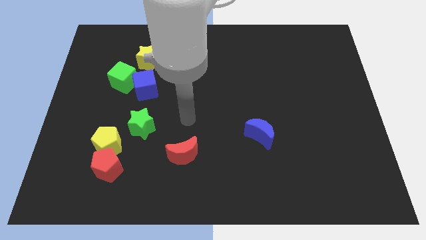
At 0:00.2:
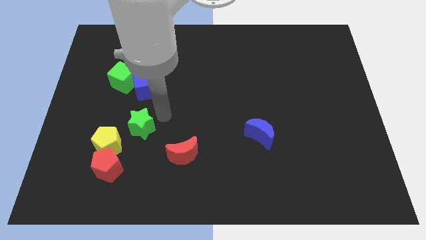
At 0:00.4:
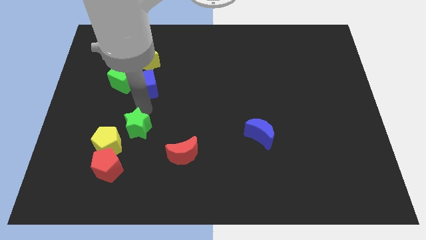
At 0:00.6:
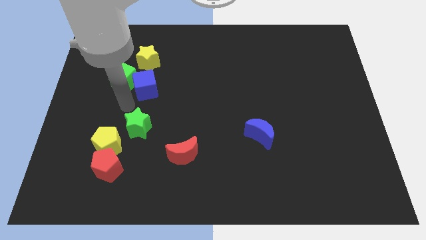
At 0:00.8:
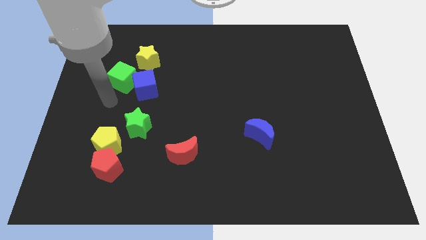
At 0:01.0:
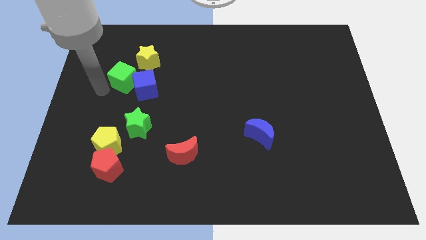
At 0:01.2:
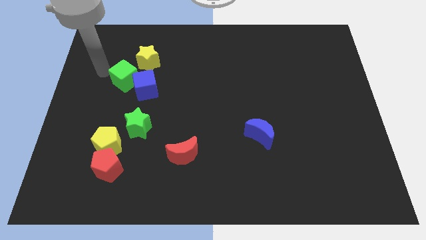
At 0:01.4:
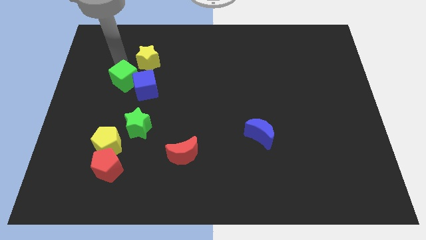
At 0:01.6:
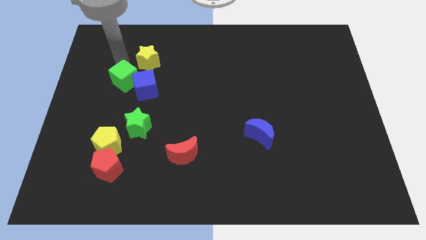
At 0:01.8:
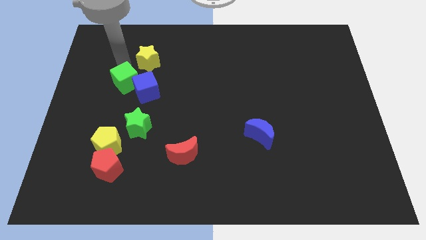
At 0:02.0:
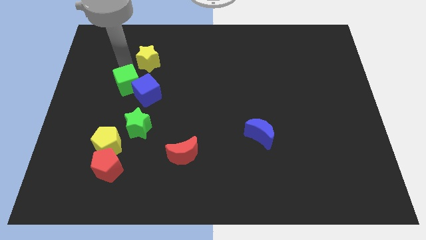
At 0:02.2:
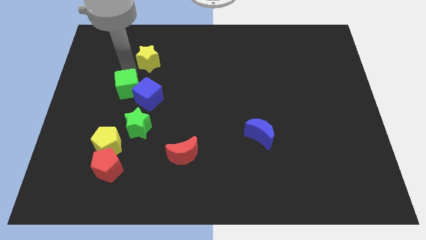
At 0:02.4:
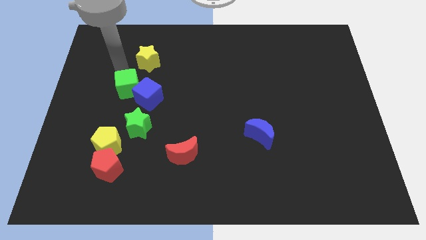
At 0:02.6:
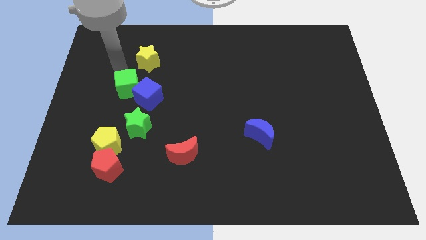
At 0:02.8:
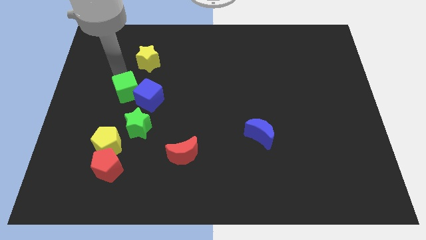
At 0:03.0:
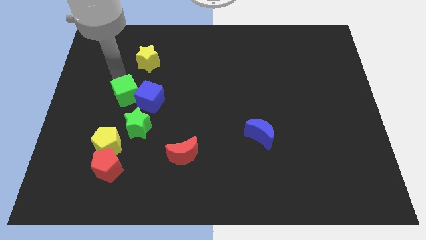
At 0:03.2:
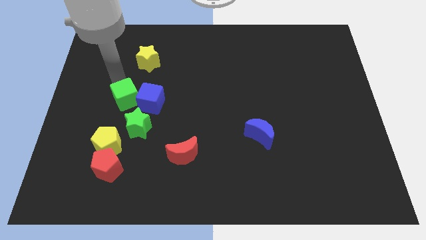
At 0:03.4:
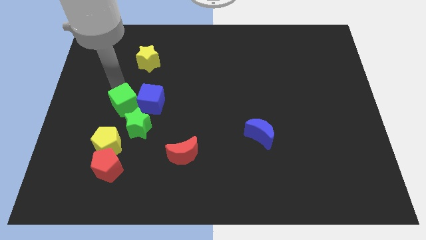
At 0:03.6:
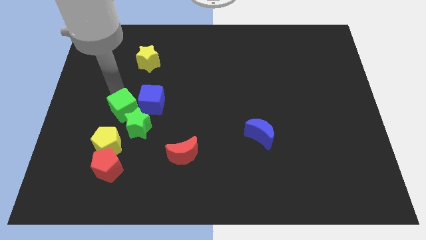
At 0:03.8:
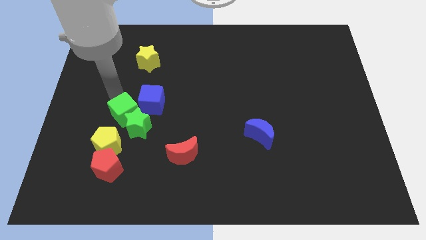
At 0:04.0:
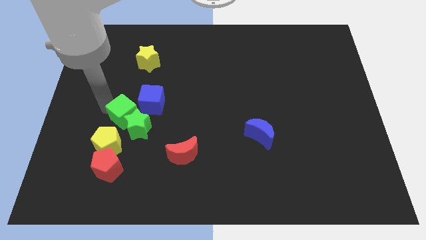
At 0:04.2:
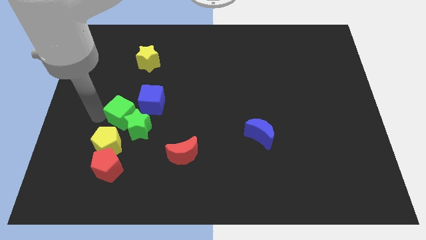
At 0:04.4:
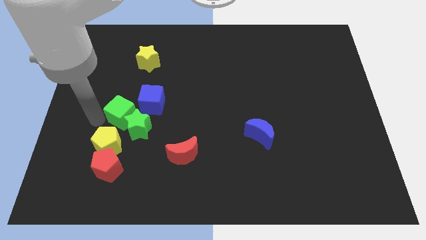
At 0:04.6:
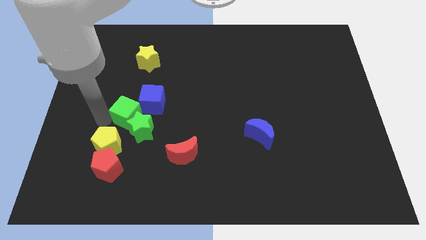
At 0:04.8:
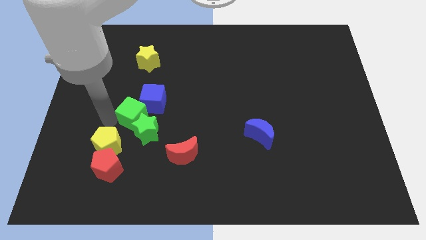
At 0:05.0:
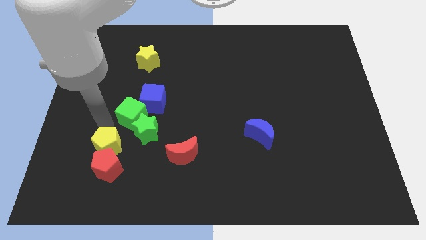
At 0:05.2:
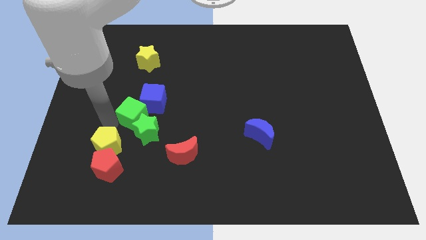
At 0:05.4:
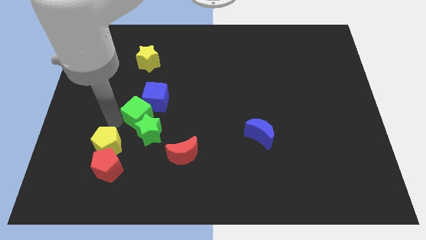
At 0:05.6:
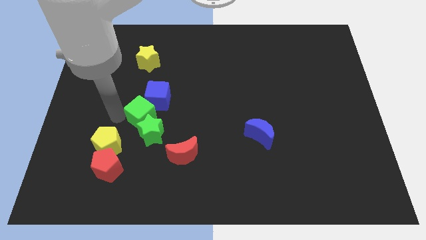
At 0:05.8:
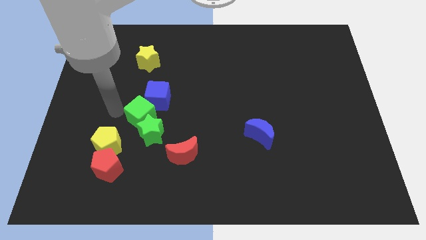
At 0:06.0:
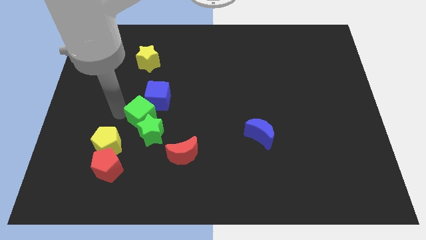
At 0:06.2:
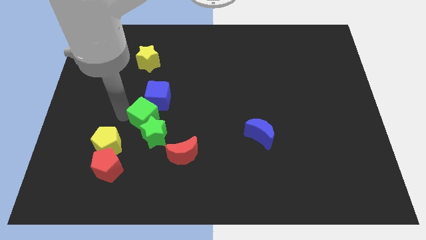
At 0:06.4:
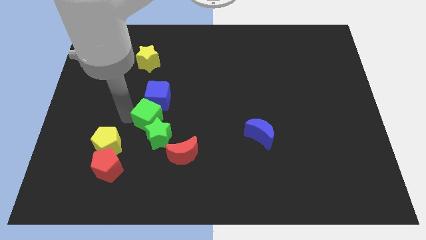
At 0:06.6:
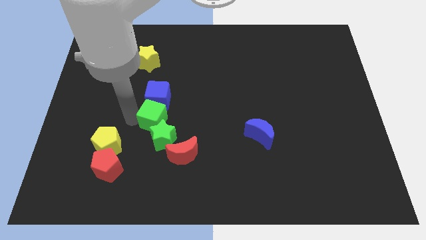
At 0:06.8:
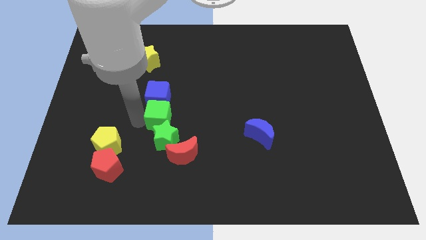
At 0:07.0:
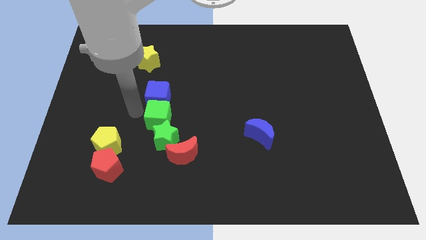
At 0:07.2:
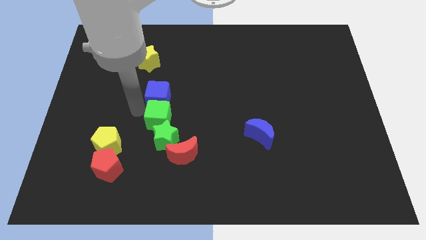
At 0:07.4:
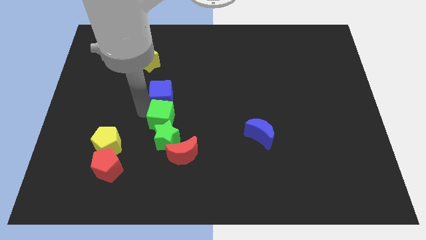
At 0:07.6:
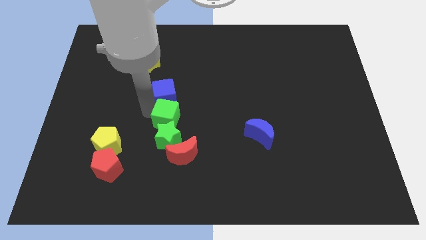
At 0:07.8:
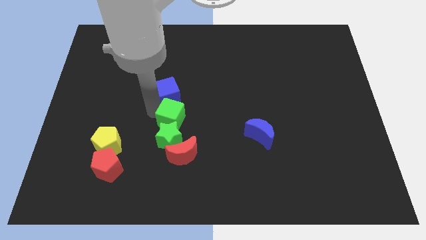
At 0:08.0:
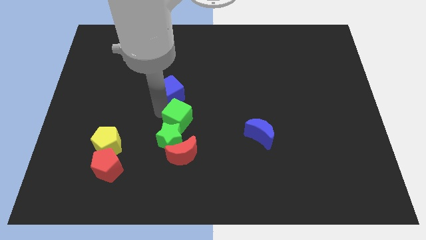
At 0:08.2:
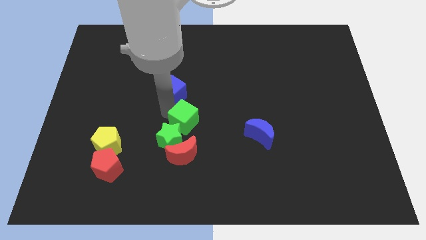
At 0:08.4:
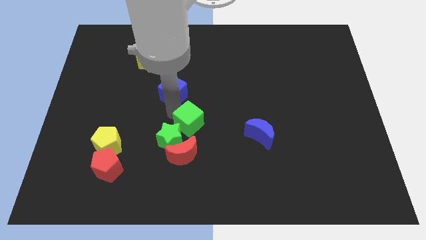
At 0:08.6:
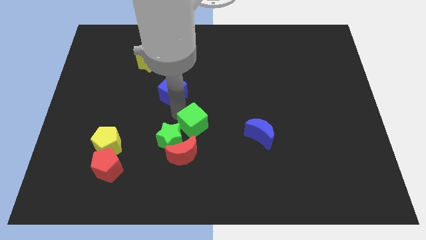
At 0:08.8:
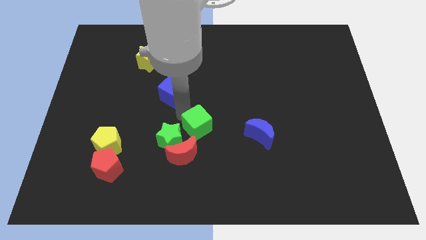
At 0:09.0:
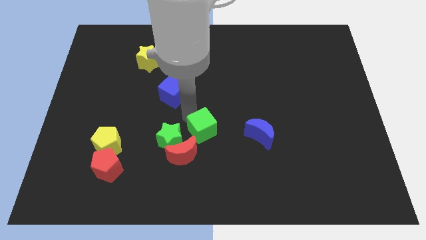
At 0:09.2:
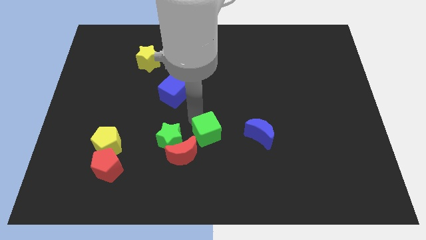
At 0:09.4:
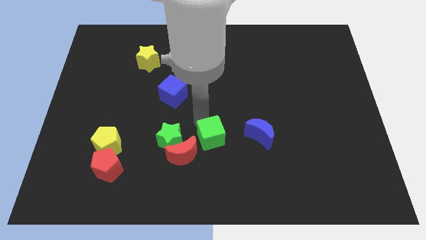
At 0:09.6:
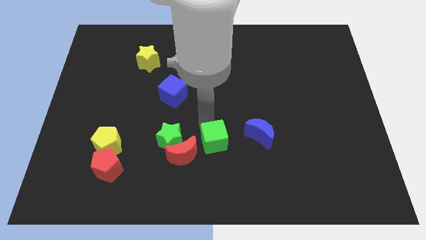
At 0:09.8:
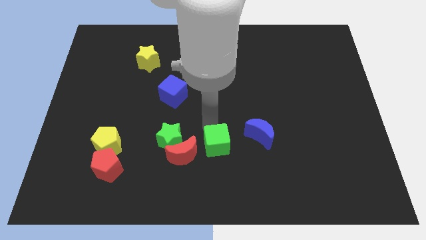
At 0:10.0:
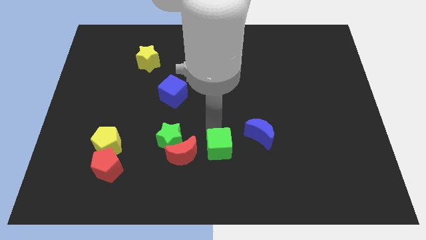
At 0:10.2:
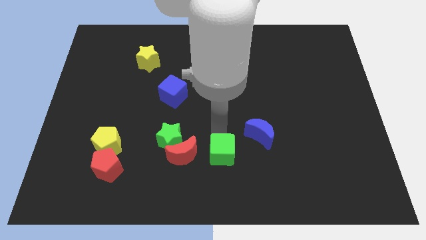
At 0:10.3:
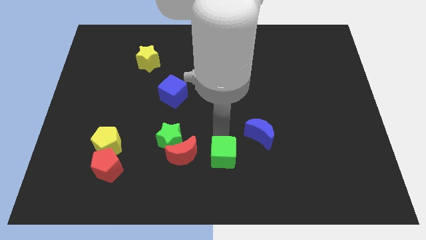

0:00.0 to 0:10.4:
slide the green cube to the bottom side

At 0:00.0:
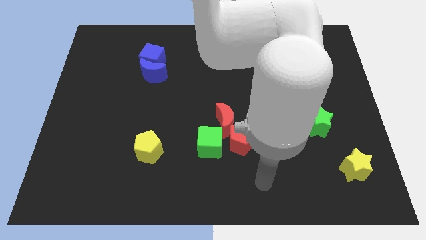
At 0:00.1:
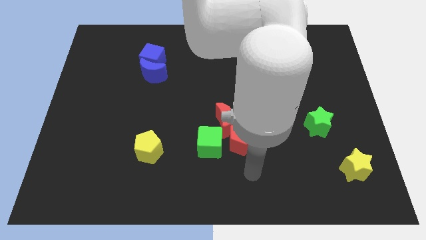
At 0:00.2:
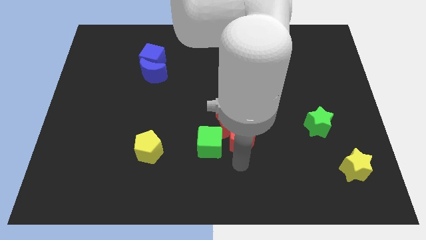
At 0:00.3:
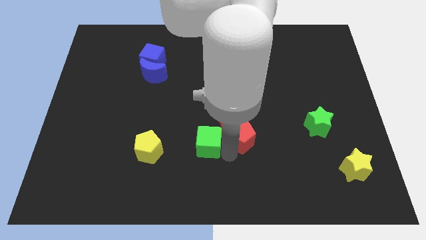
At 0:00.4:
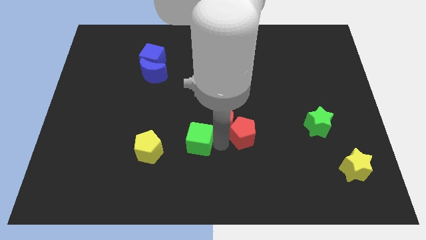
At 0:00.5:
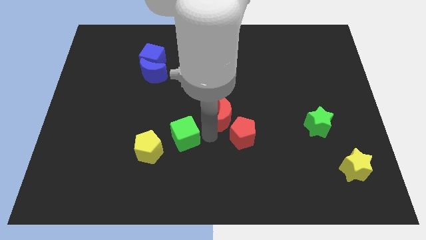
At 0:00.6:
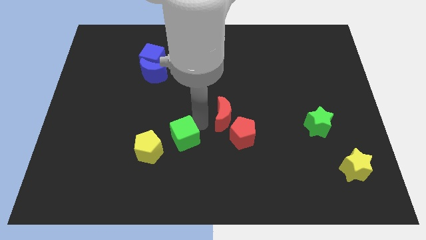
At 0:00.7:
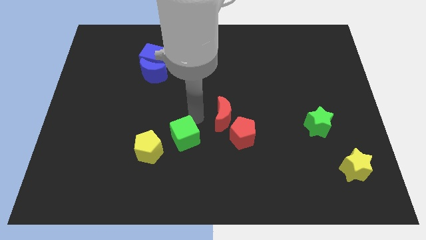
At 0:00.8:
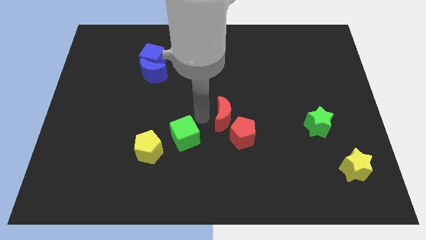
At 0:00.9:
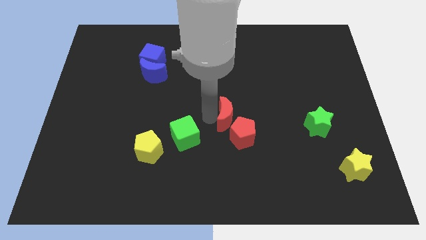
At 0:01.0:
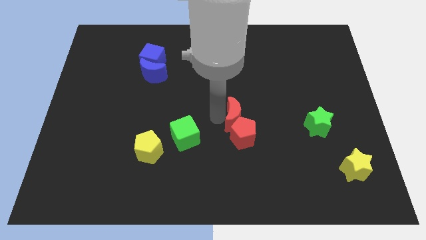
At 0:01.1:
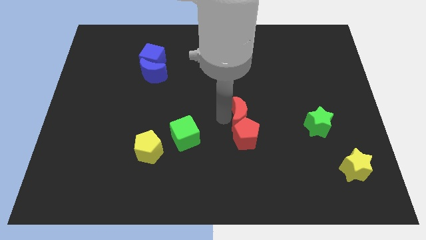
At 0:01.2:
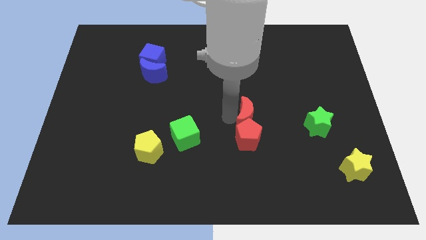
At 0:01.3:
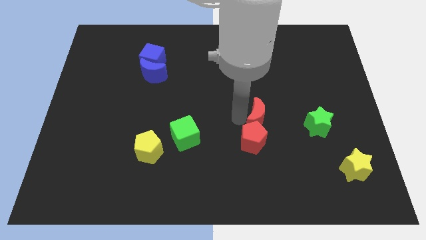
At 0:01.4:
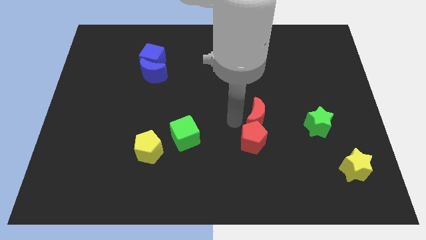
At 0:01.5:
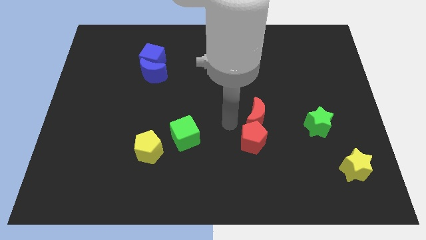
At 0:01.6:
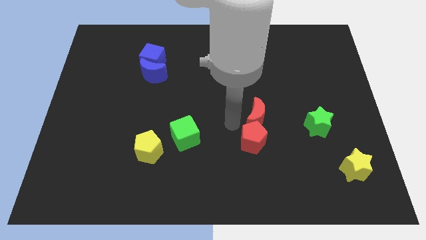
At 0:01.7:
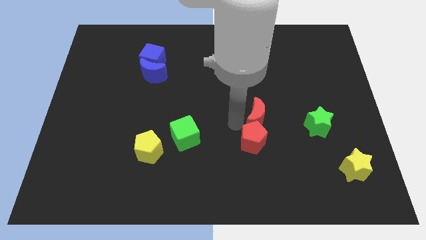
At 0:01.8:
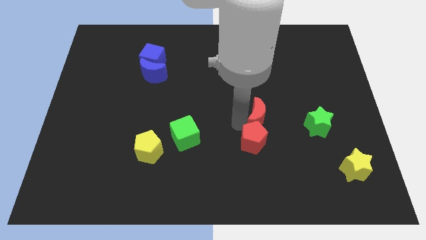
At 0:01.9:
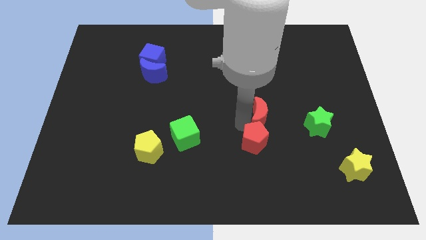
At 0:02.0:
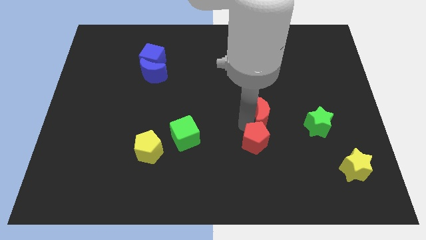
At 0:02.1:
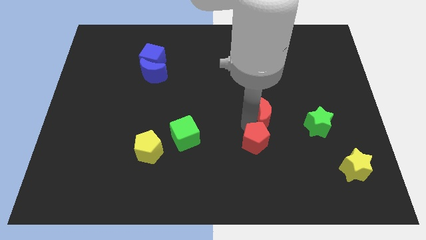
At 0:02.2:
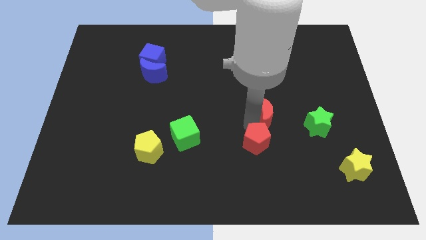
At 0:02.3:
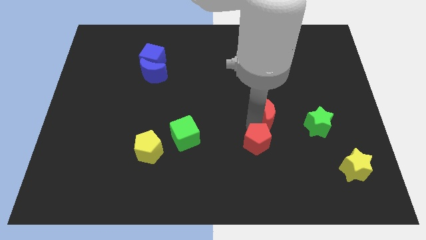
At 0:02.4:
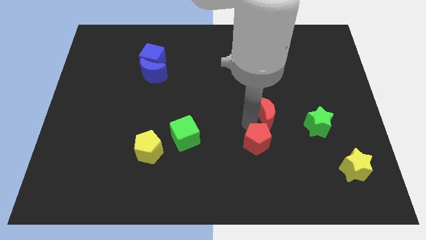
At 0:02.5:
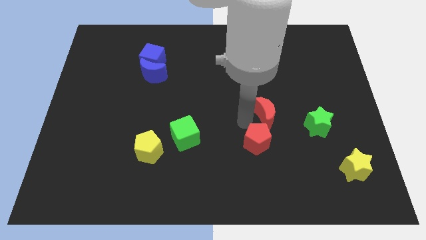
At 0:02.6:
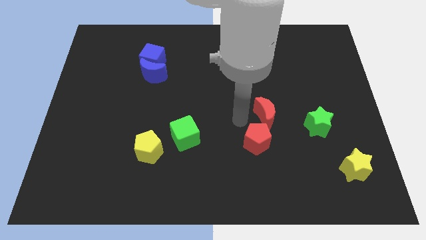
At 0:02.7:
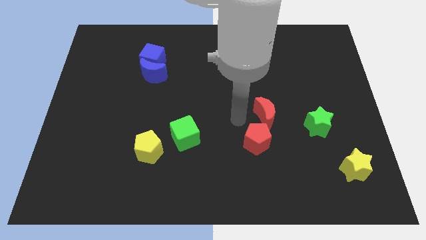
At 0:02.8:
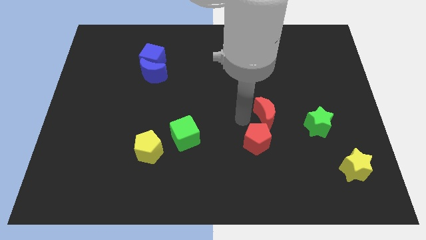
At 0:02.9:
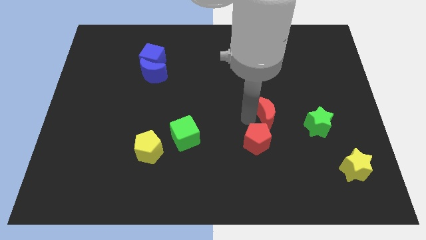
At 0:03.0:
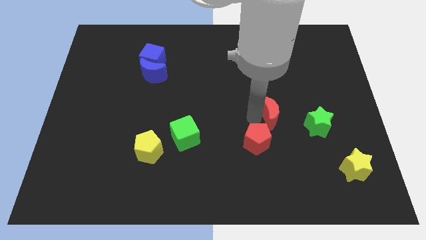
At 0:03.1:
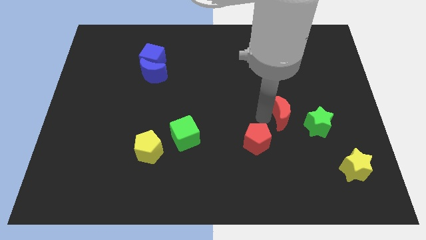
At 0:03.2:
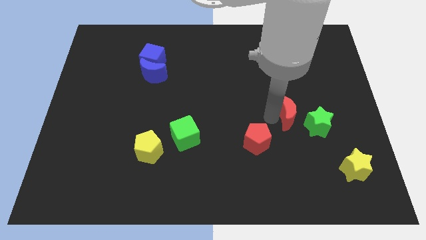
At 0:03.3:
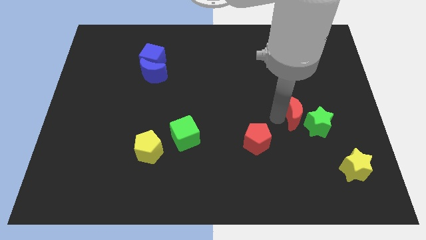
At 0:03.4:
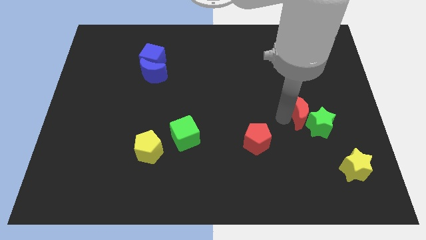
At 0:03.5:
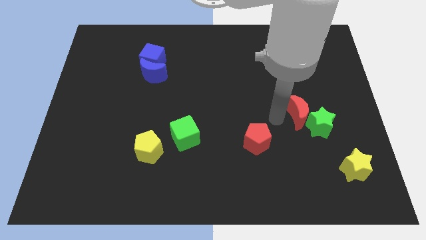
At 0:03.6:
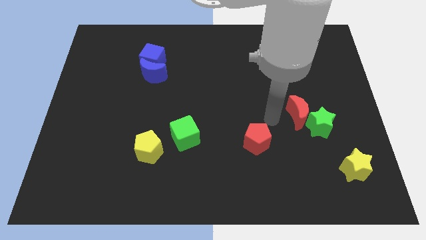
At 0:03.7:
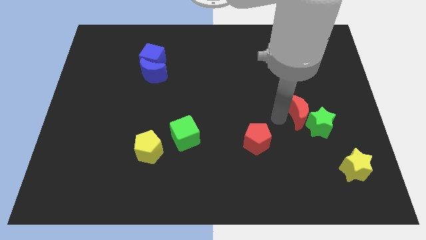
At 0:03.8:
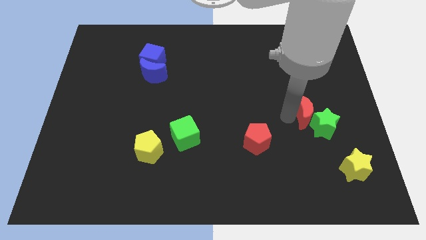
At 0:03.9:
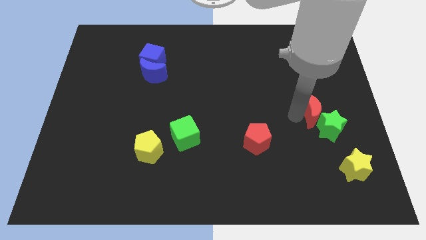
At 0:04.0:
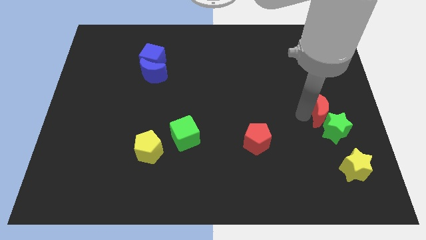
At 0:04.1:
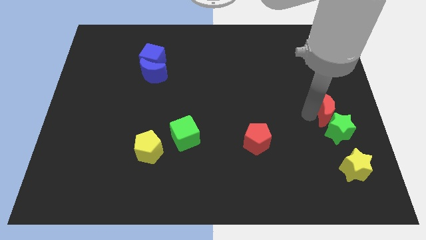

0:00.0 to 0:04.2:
slide the red moon to the center right
